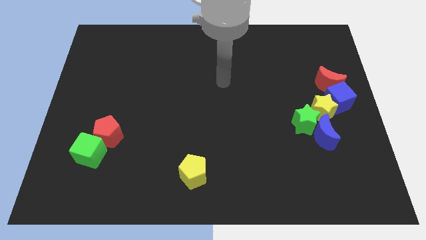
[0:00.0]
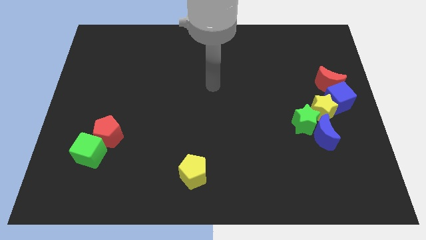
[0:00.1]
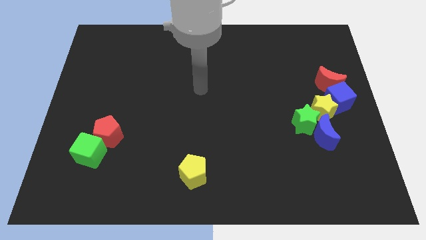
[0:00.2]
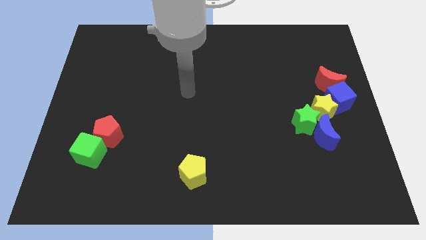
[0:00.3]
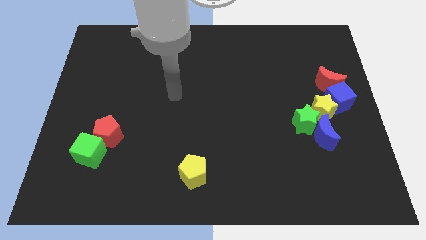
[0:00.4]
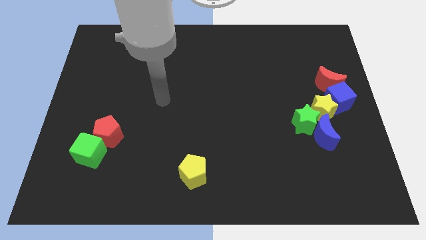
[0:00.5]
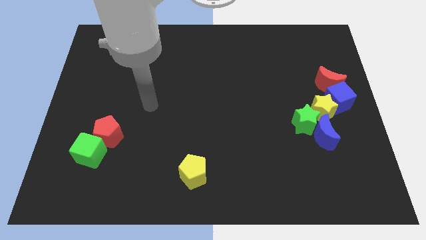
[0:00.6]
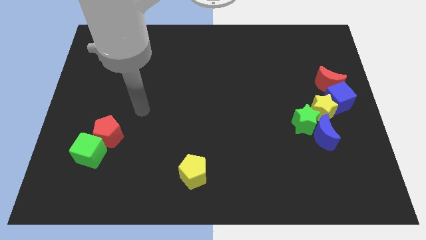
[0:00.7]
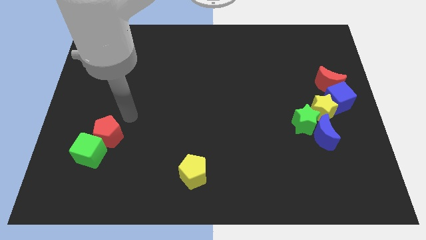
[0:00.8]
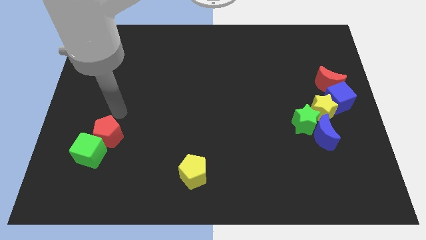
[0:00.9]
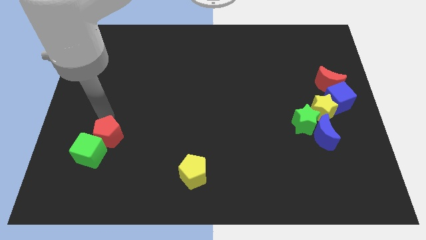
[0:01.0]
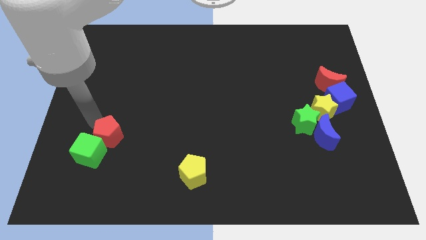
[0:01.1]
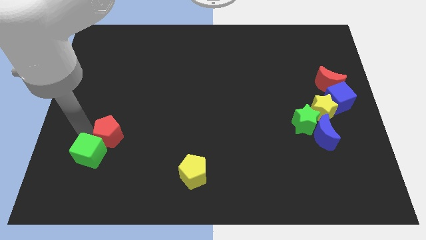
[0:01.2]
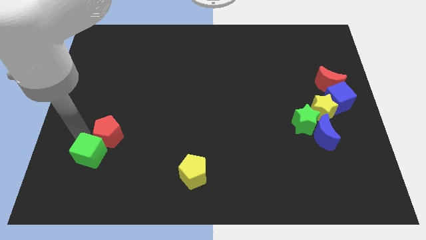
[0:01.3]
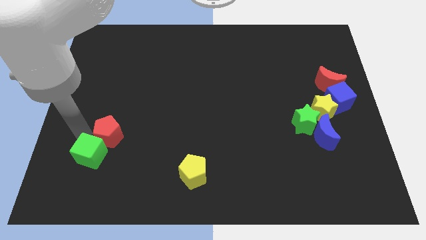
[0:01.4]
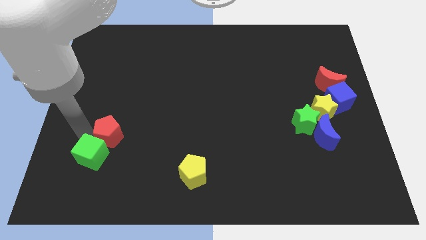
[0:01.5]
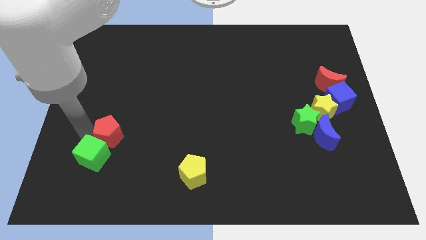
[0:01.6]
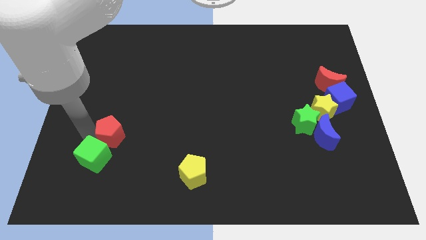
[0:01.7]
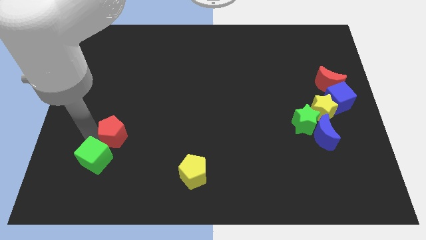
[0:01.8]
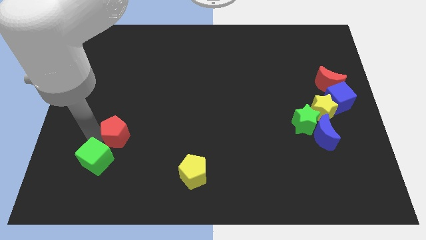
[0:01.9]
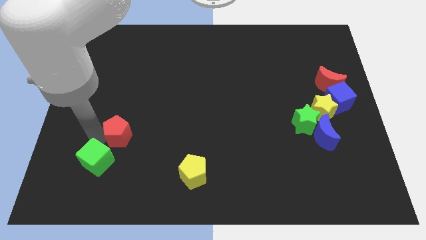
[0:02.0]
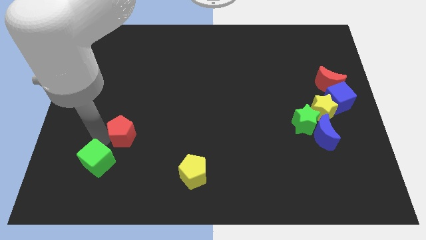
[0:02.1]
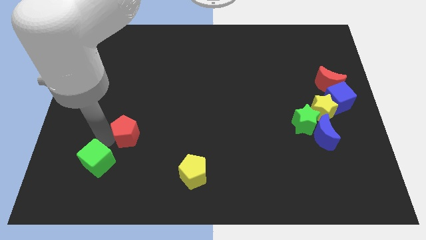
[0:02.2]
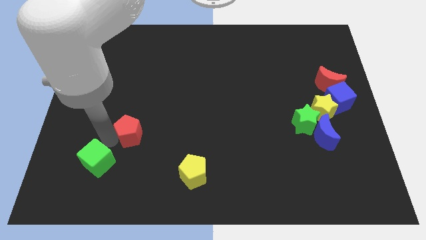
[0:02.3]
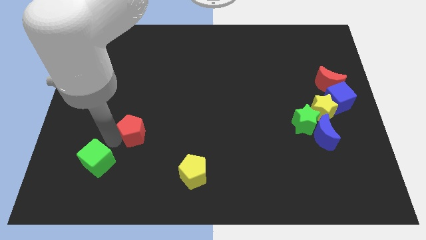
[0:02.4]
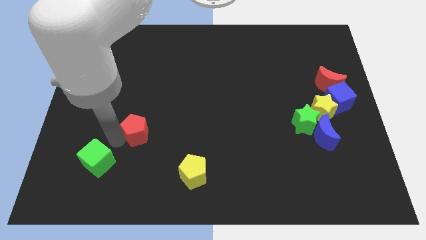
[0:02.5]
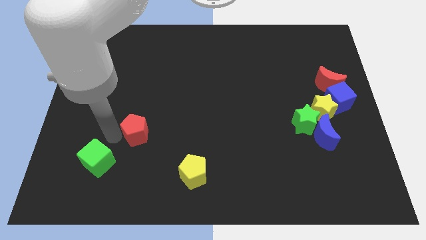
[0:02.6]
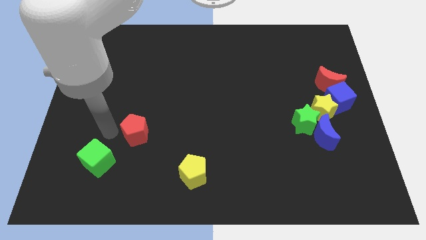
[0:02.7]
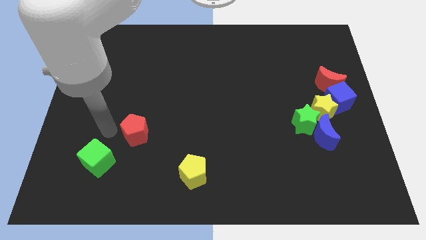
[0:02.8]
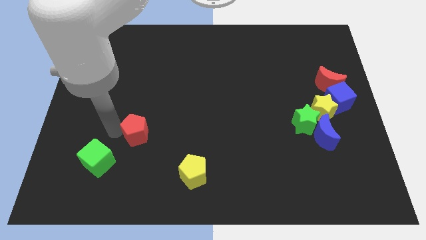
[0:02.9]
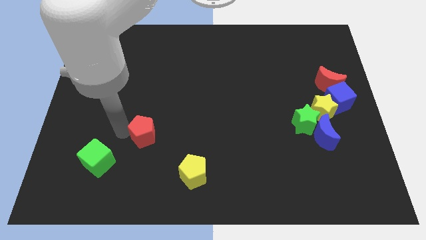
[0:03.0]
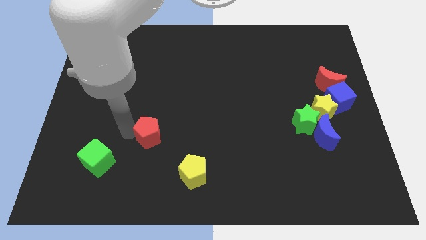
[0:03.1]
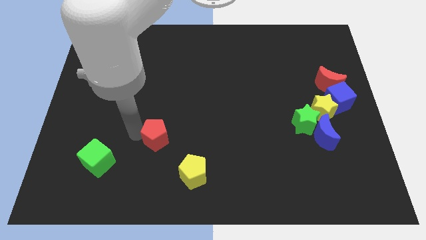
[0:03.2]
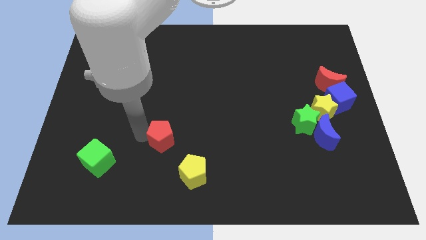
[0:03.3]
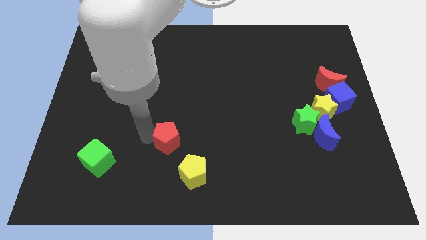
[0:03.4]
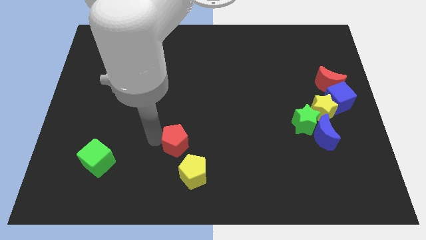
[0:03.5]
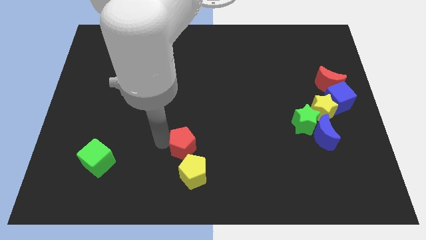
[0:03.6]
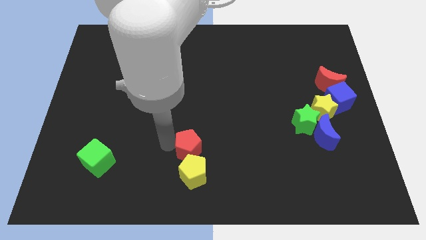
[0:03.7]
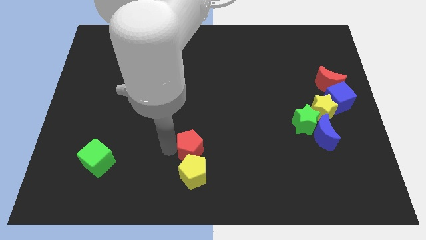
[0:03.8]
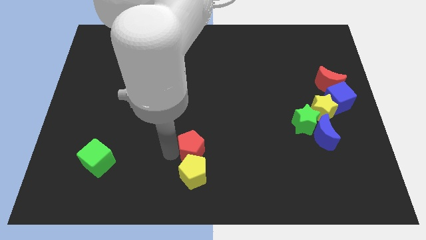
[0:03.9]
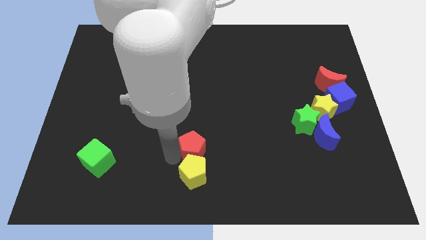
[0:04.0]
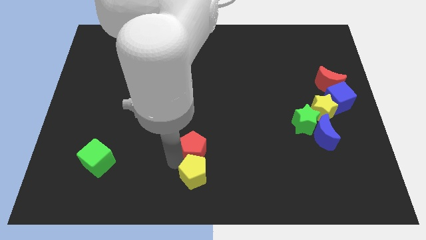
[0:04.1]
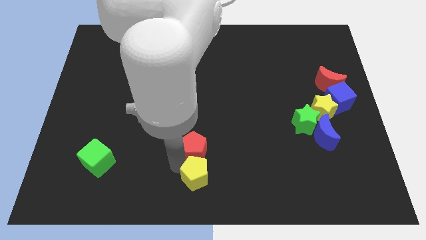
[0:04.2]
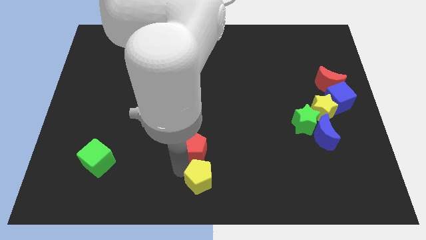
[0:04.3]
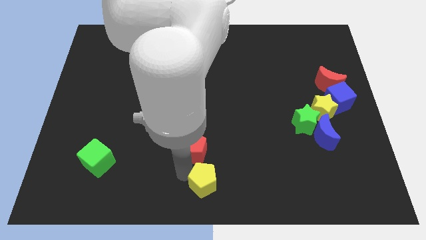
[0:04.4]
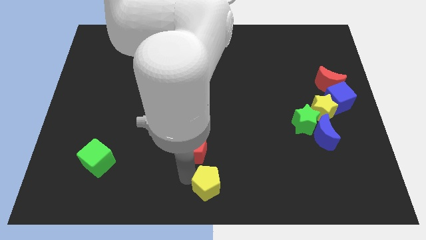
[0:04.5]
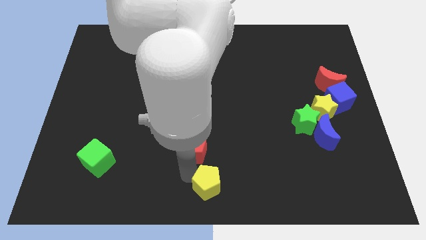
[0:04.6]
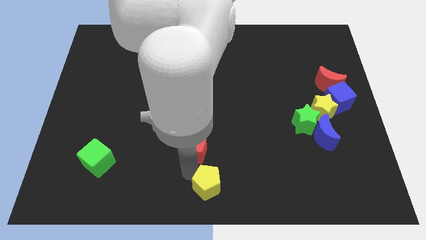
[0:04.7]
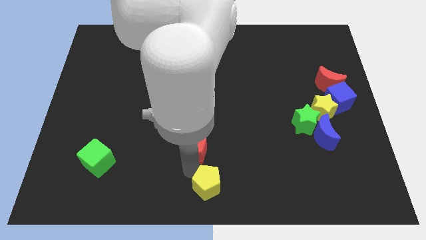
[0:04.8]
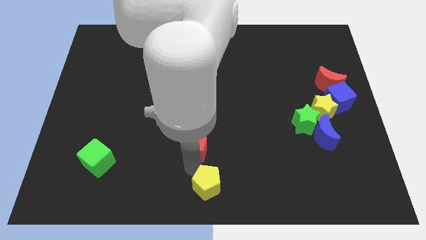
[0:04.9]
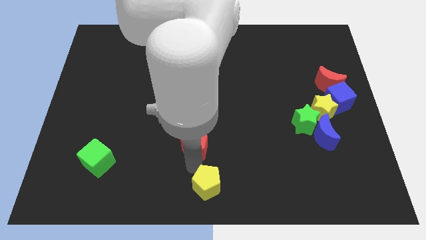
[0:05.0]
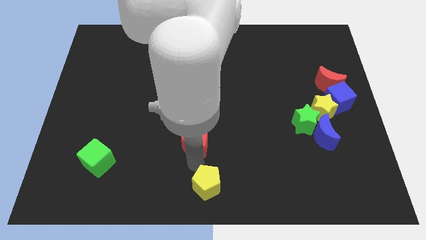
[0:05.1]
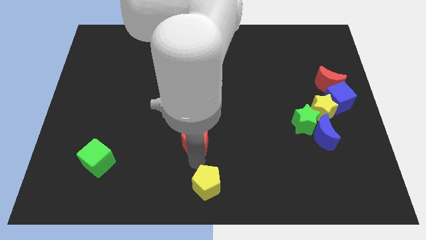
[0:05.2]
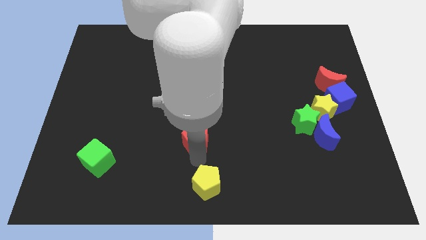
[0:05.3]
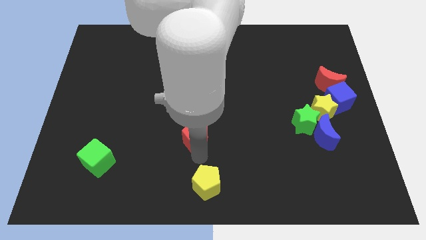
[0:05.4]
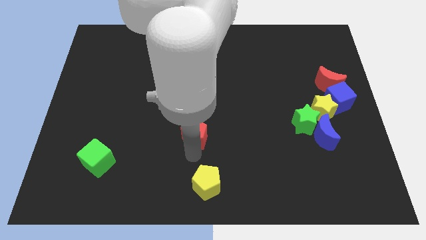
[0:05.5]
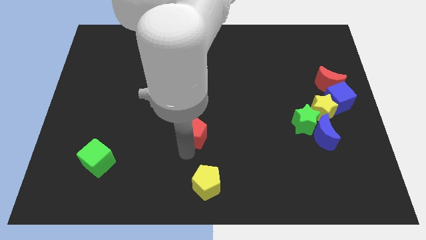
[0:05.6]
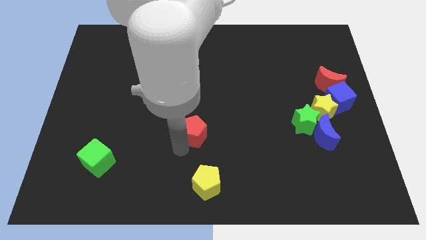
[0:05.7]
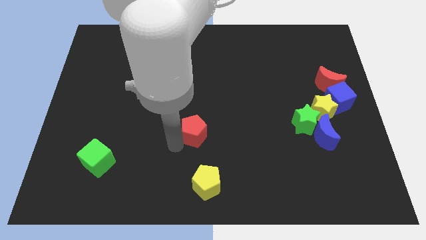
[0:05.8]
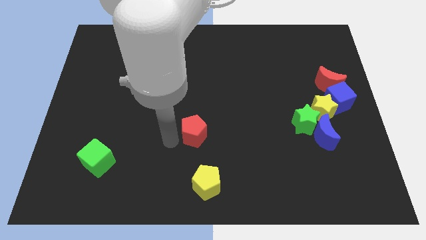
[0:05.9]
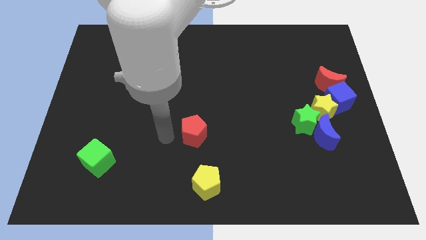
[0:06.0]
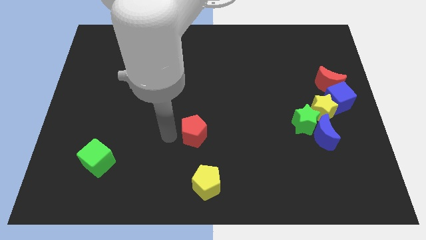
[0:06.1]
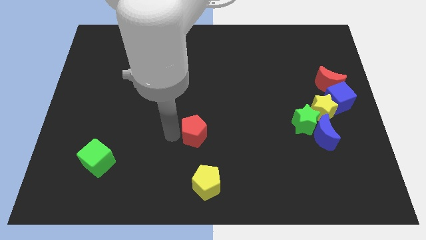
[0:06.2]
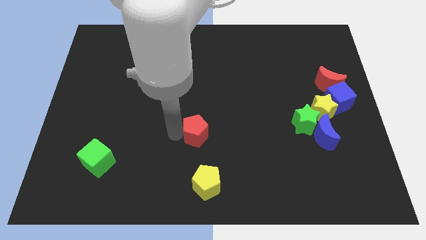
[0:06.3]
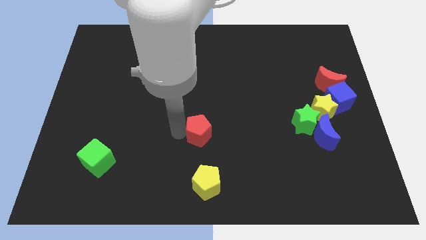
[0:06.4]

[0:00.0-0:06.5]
move the red pentagon right

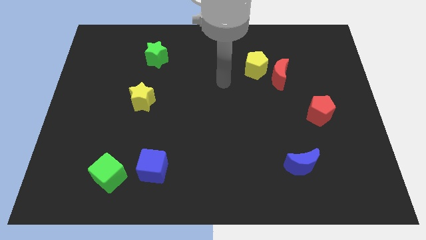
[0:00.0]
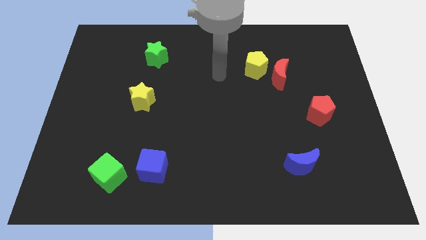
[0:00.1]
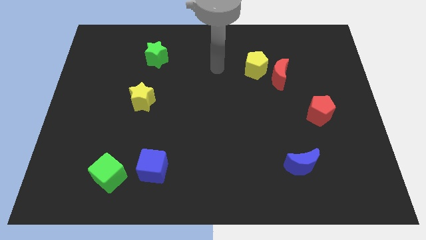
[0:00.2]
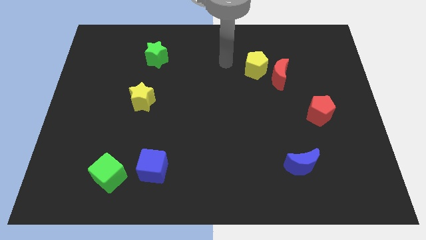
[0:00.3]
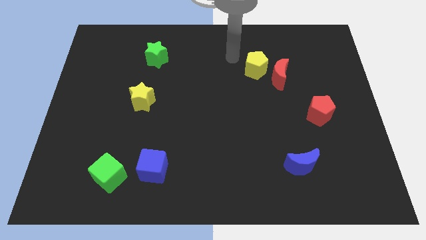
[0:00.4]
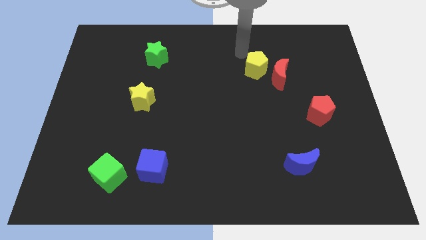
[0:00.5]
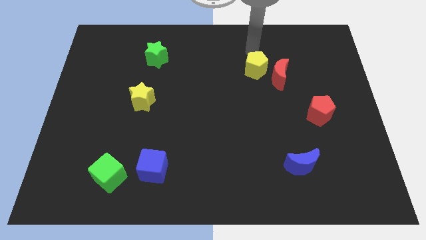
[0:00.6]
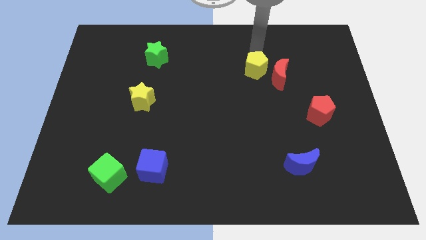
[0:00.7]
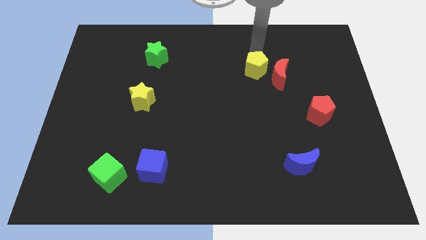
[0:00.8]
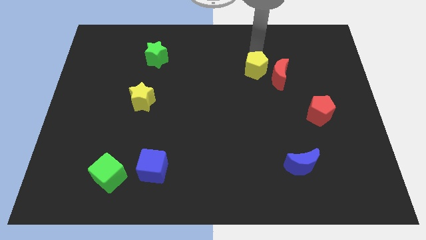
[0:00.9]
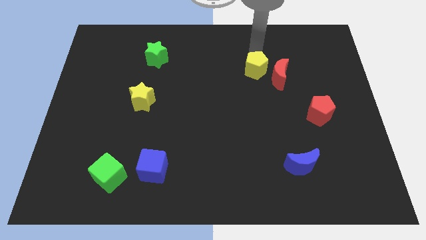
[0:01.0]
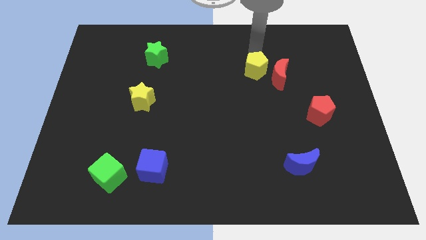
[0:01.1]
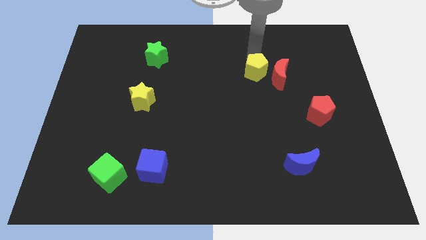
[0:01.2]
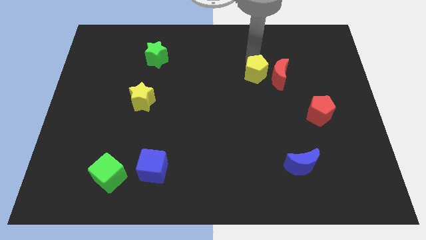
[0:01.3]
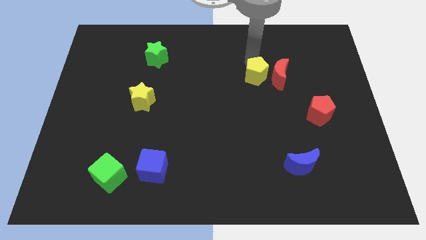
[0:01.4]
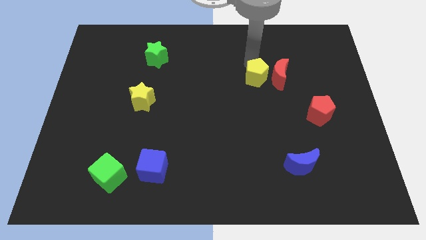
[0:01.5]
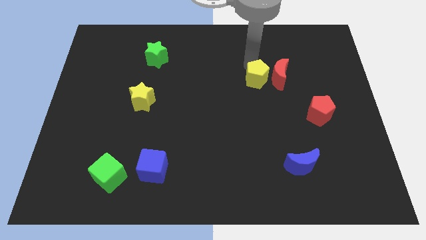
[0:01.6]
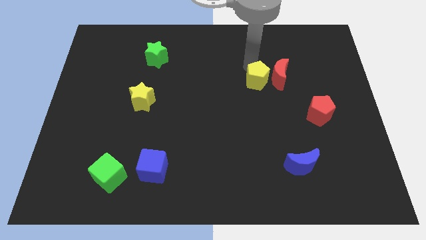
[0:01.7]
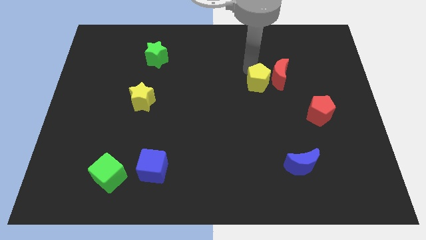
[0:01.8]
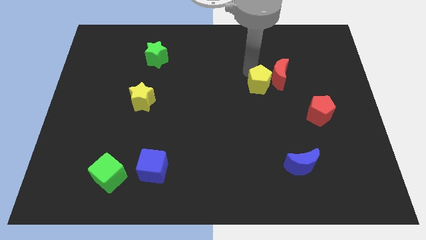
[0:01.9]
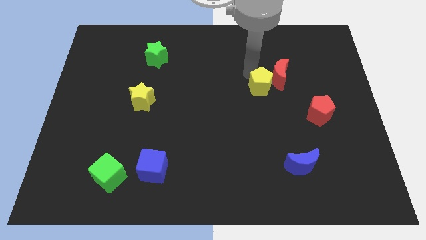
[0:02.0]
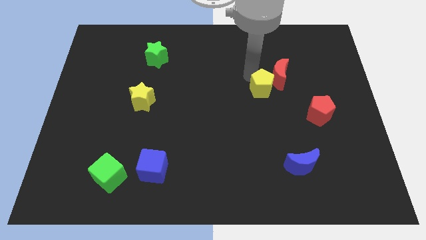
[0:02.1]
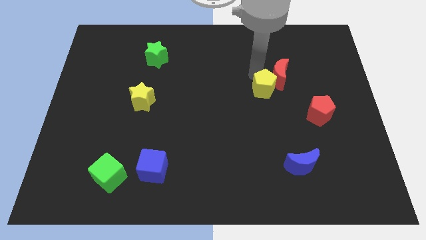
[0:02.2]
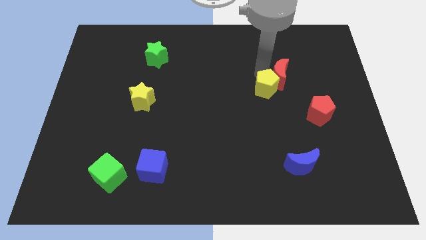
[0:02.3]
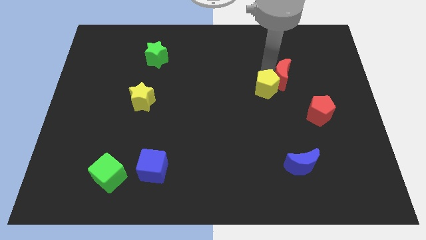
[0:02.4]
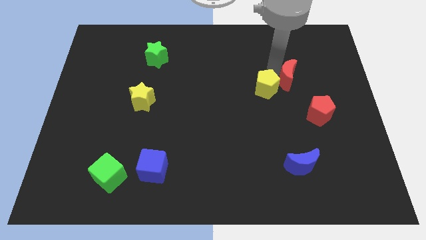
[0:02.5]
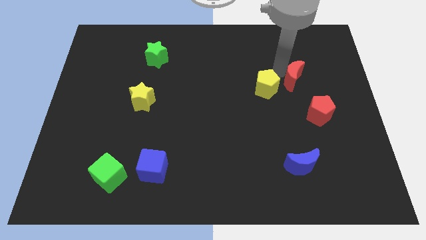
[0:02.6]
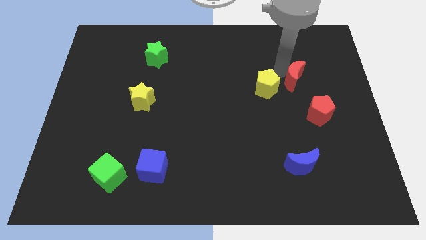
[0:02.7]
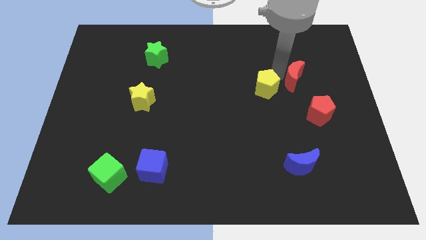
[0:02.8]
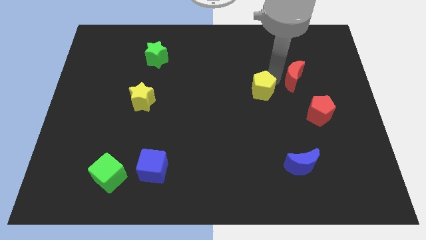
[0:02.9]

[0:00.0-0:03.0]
push the yellow pentagon down somewhat
